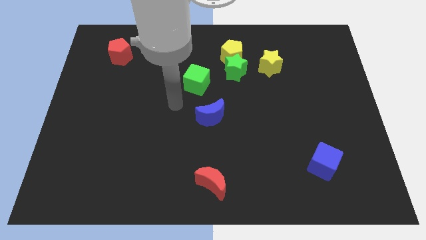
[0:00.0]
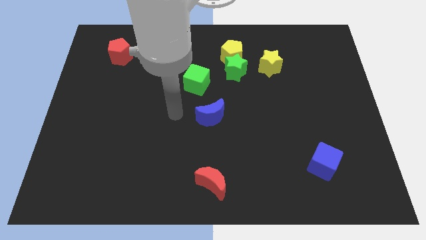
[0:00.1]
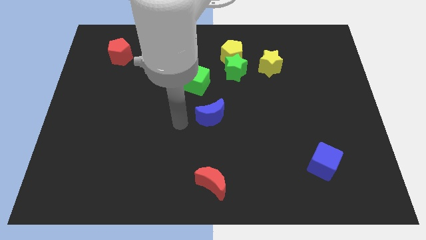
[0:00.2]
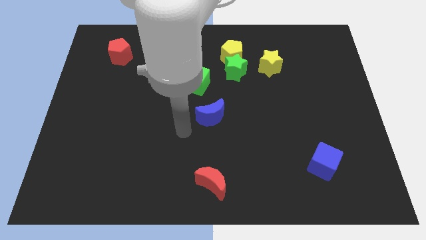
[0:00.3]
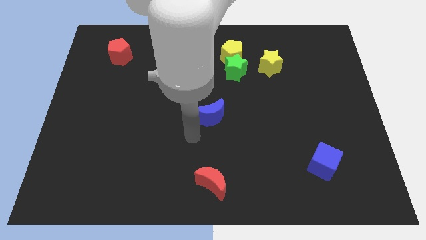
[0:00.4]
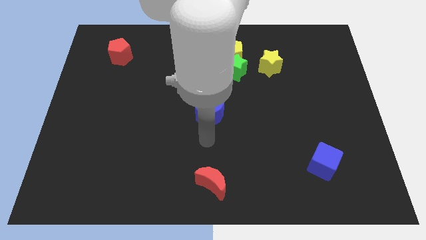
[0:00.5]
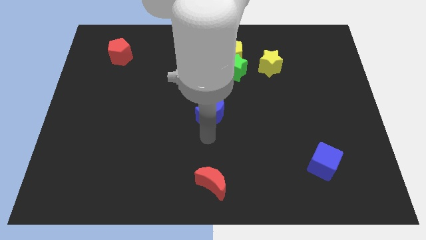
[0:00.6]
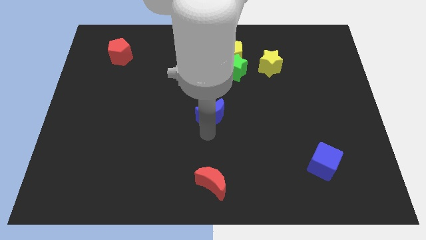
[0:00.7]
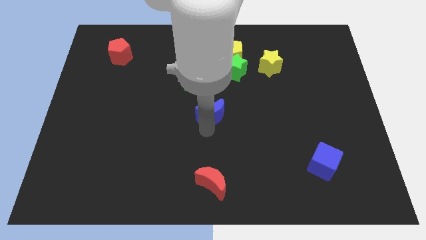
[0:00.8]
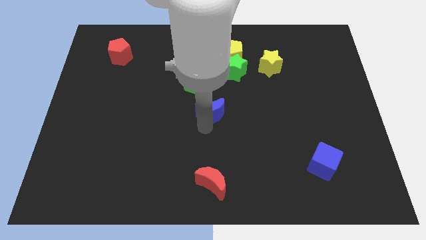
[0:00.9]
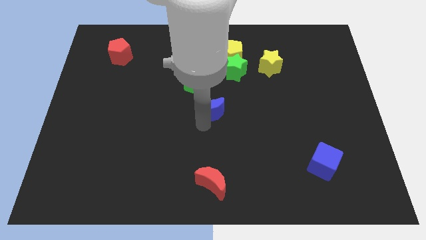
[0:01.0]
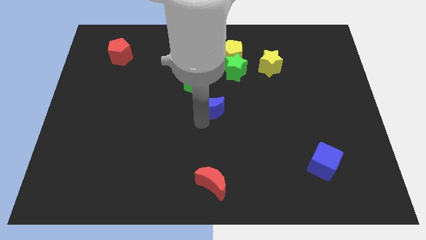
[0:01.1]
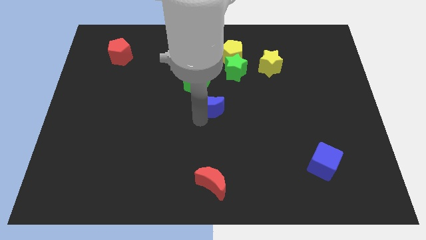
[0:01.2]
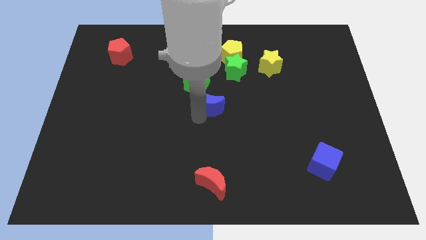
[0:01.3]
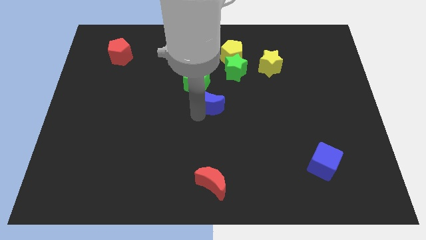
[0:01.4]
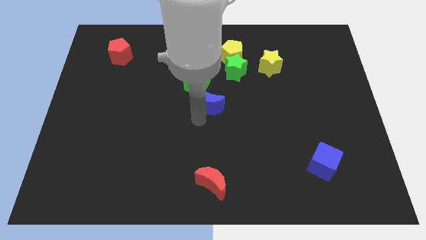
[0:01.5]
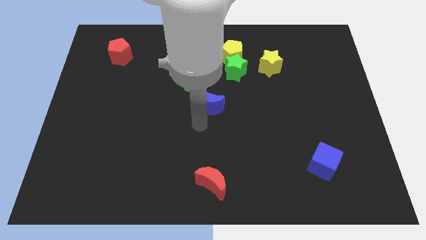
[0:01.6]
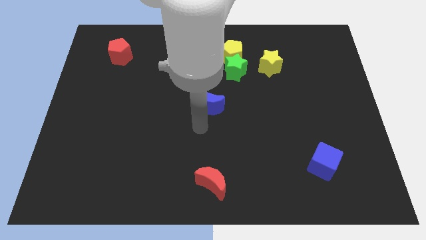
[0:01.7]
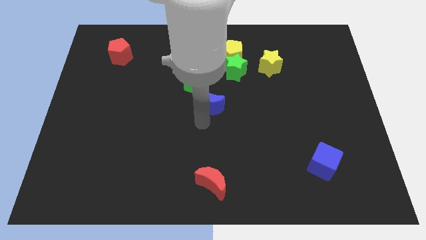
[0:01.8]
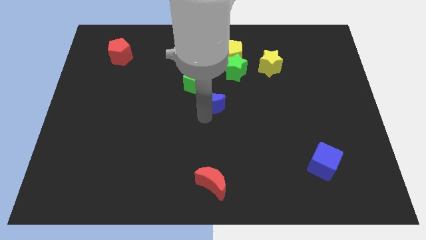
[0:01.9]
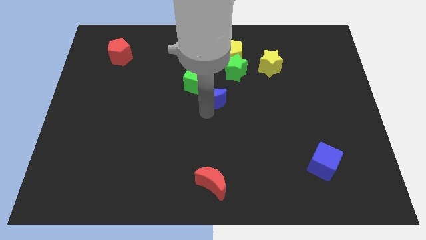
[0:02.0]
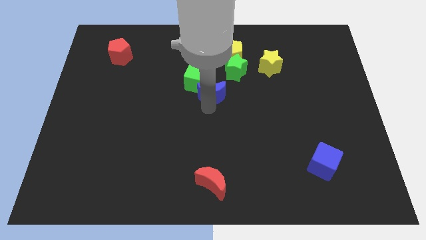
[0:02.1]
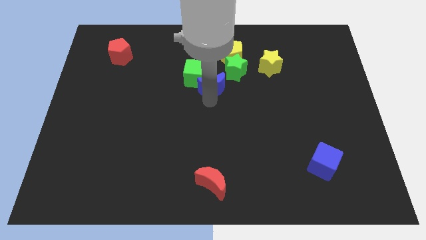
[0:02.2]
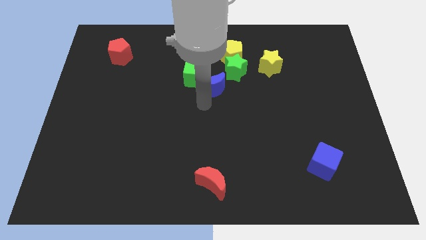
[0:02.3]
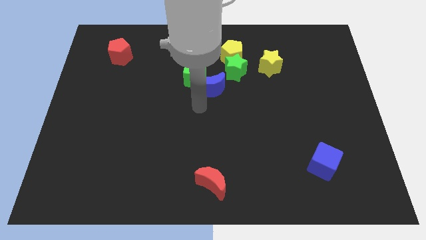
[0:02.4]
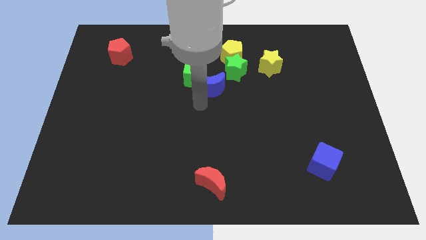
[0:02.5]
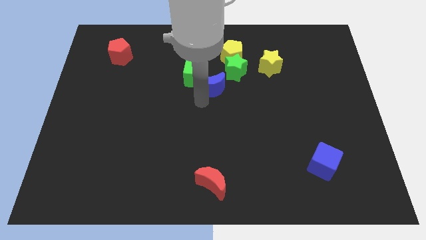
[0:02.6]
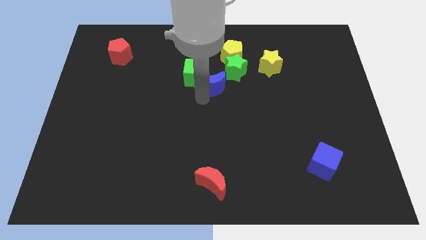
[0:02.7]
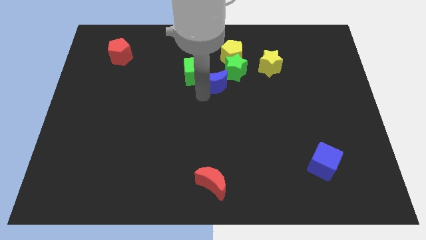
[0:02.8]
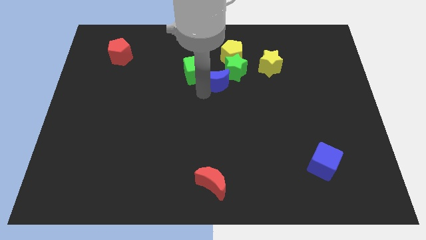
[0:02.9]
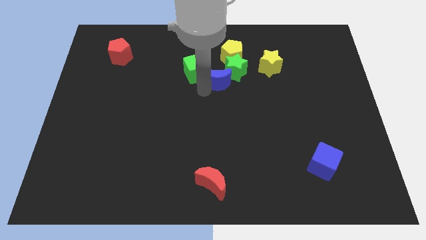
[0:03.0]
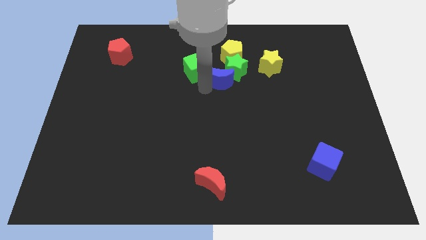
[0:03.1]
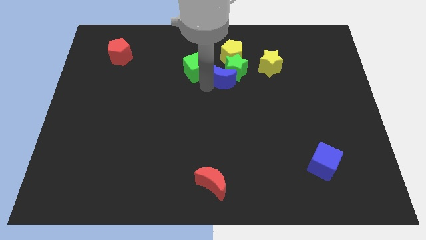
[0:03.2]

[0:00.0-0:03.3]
push the blue moon to the left side of the yellow star

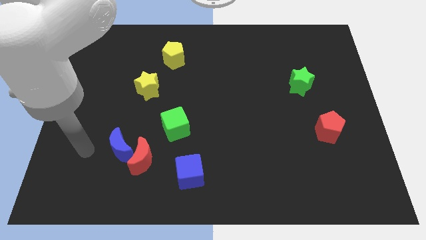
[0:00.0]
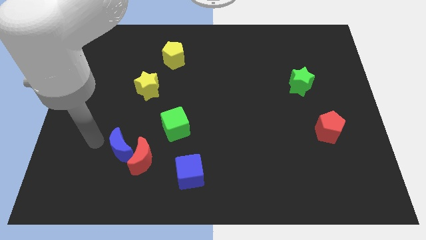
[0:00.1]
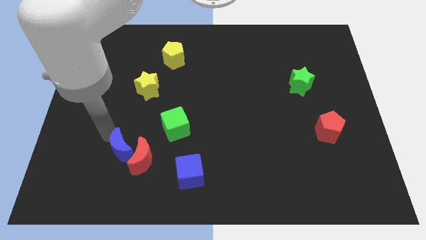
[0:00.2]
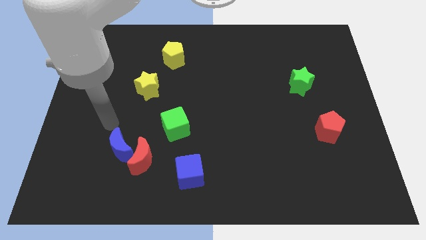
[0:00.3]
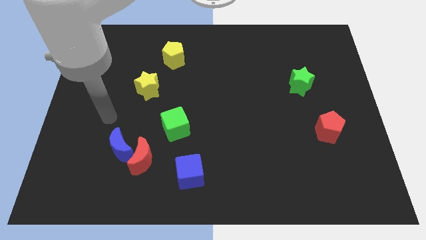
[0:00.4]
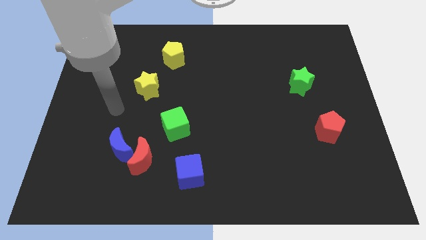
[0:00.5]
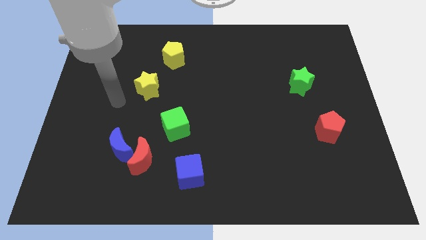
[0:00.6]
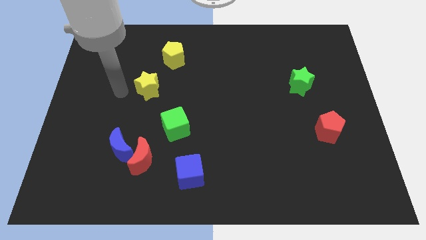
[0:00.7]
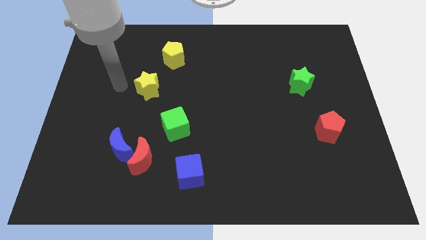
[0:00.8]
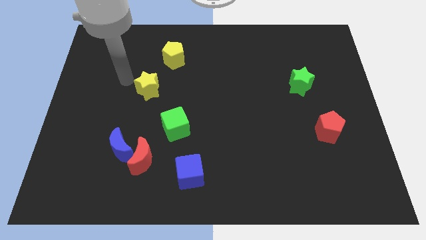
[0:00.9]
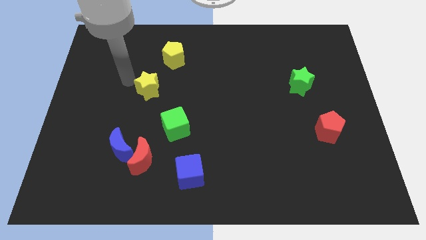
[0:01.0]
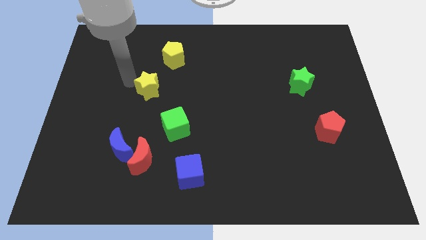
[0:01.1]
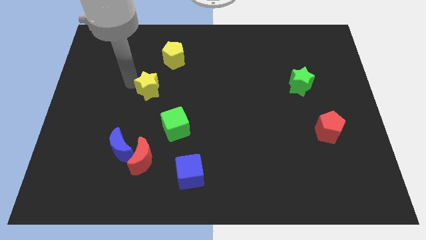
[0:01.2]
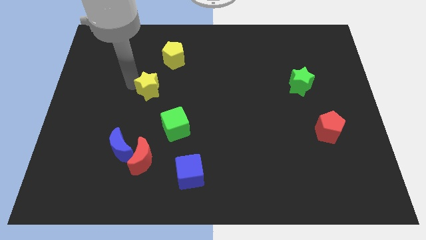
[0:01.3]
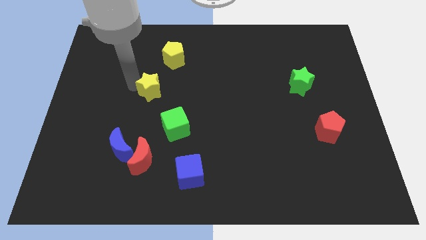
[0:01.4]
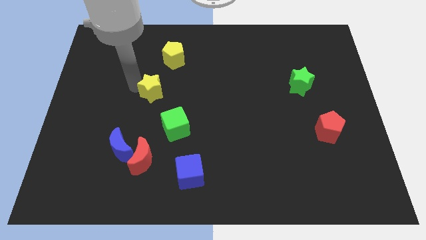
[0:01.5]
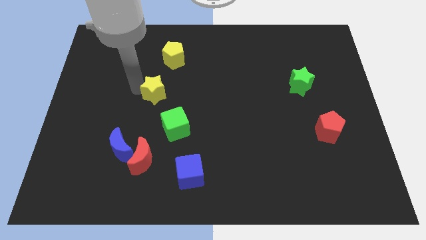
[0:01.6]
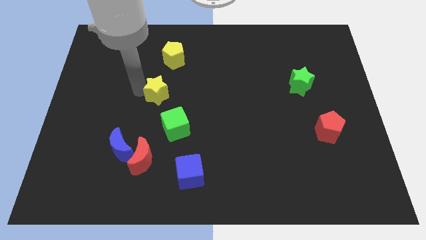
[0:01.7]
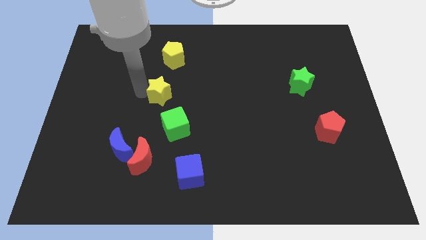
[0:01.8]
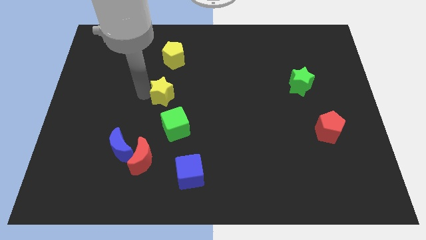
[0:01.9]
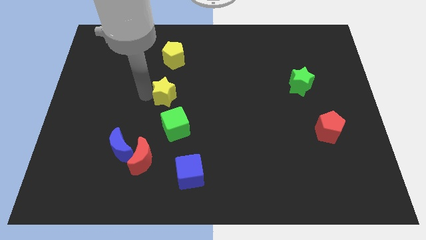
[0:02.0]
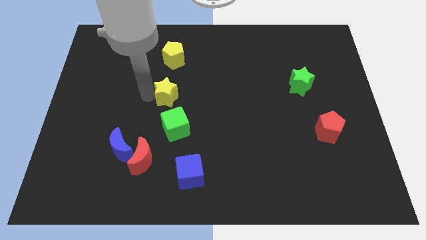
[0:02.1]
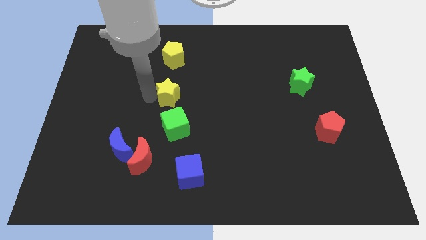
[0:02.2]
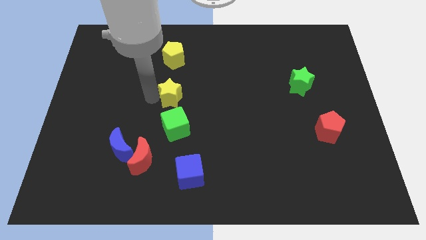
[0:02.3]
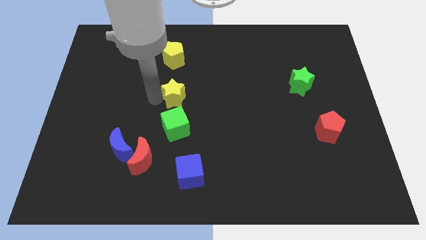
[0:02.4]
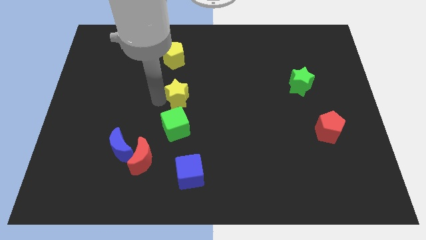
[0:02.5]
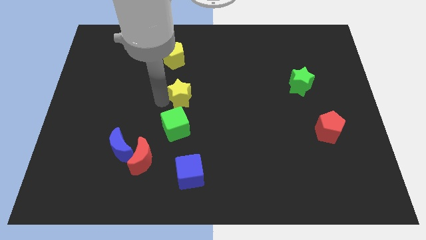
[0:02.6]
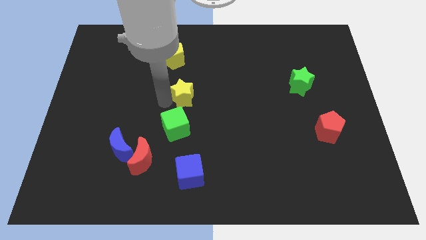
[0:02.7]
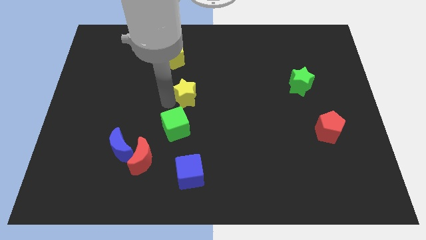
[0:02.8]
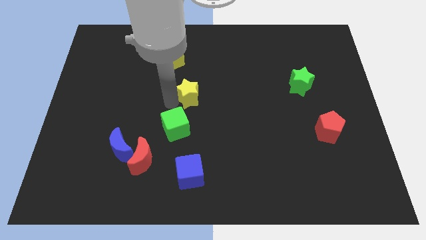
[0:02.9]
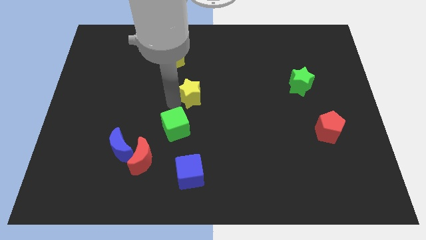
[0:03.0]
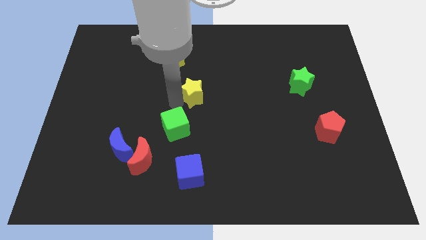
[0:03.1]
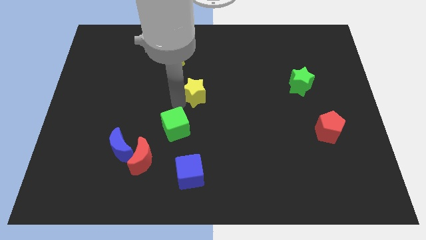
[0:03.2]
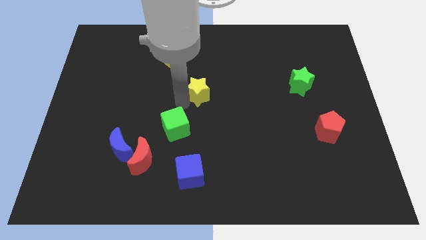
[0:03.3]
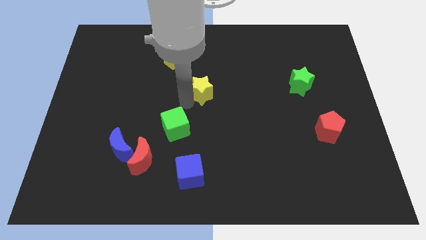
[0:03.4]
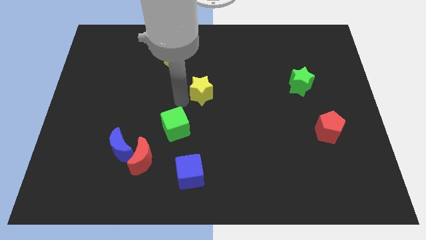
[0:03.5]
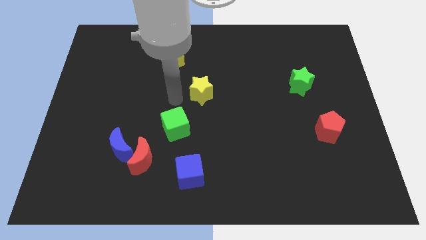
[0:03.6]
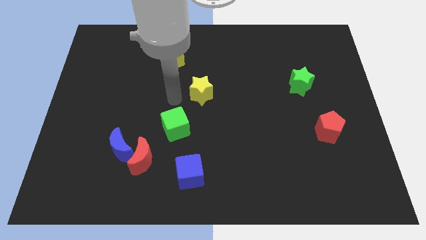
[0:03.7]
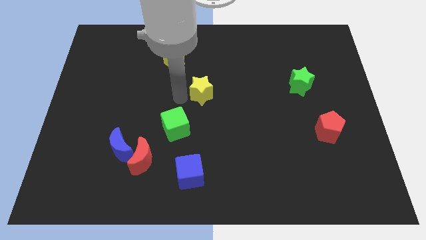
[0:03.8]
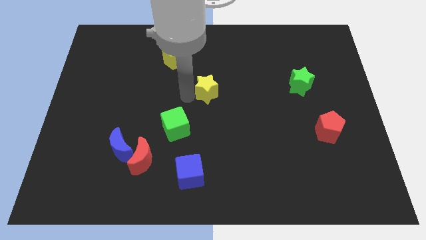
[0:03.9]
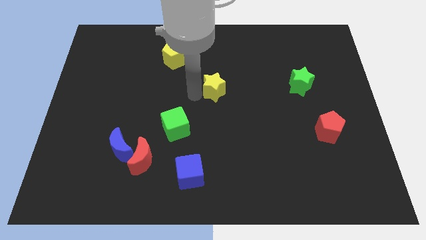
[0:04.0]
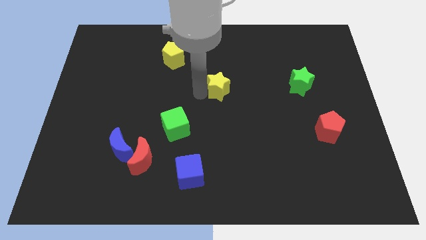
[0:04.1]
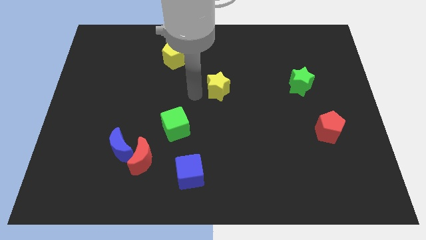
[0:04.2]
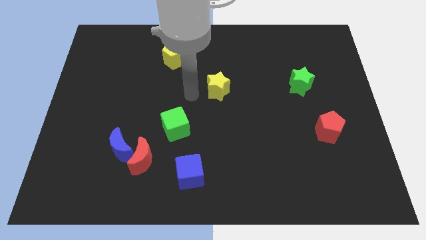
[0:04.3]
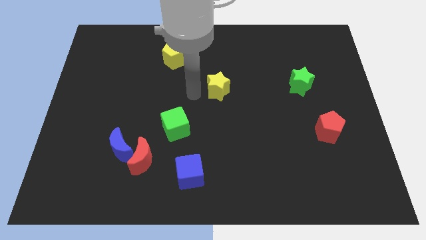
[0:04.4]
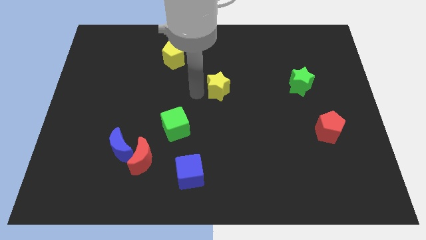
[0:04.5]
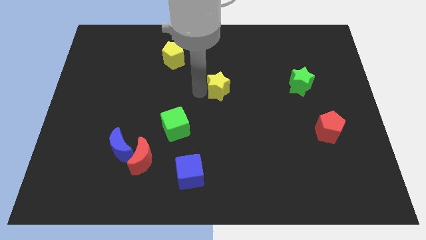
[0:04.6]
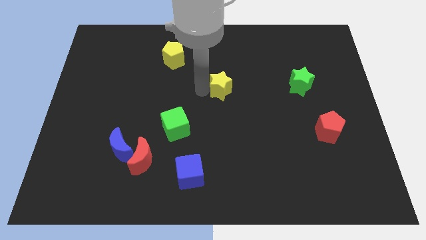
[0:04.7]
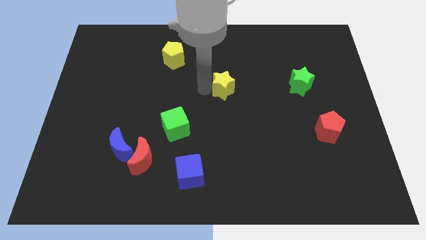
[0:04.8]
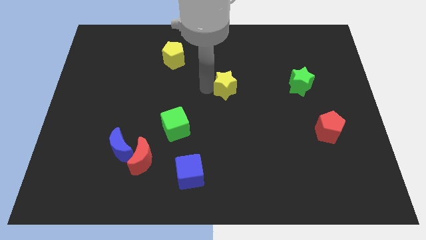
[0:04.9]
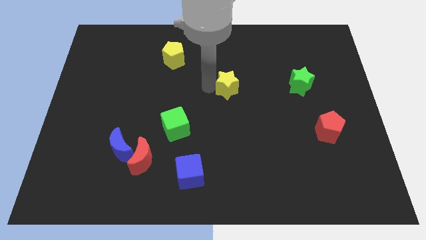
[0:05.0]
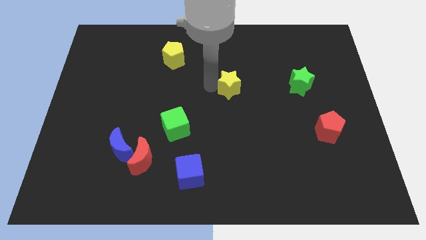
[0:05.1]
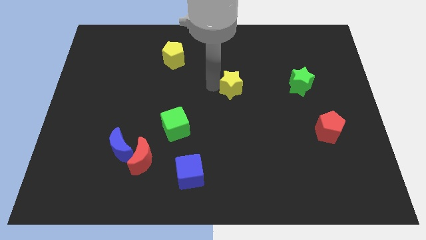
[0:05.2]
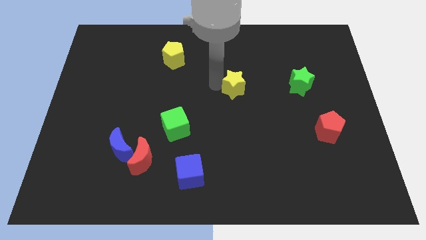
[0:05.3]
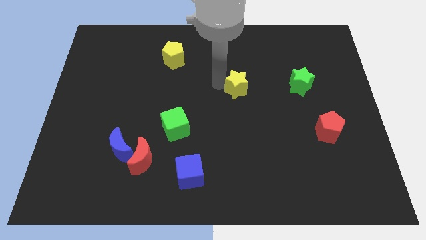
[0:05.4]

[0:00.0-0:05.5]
slide the yellow star left of the green star
